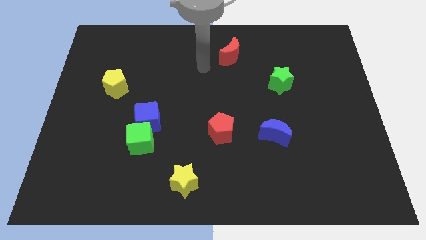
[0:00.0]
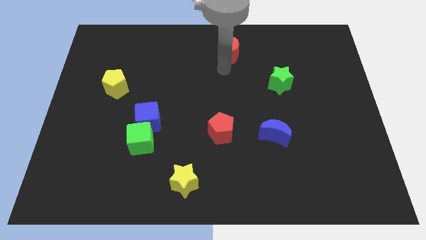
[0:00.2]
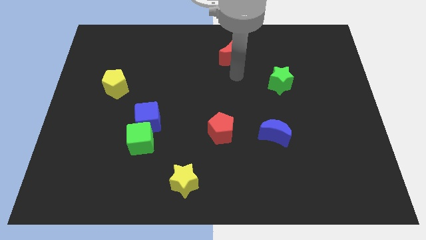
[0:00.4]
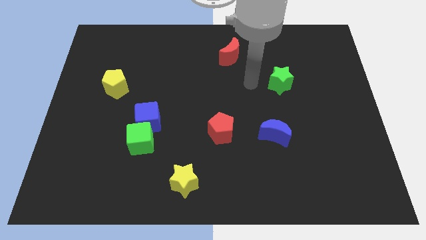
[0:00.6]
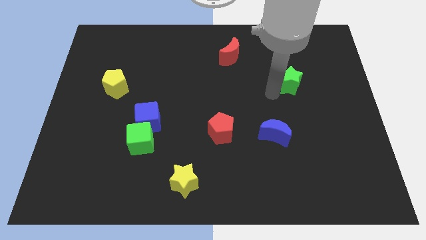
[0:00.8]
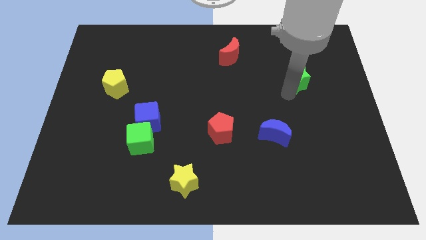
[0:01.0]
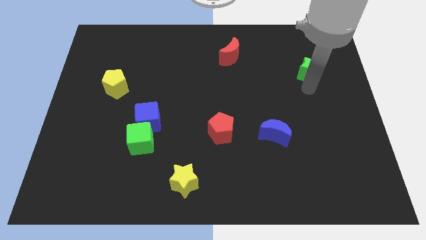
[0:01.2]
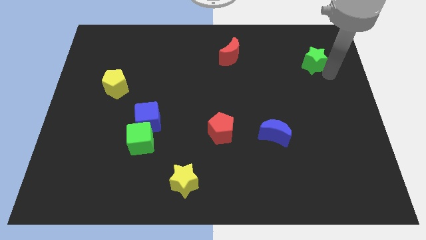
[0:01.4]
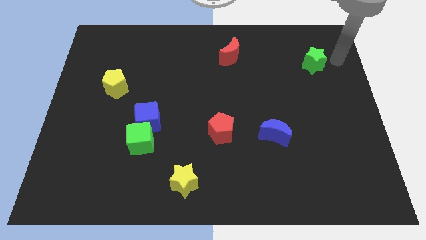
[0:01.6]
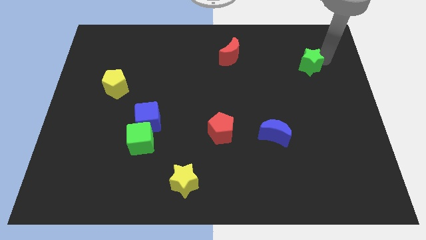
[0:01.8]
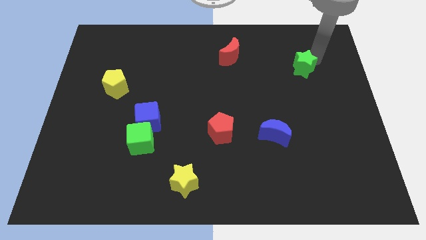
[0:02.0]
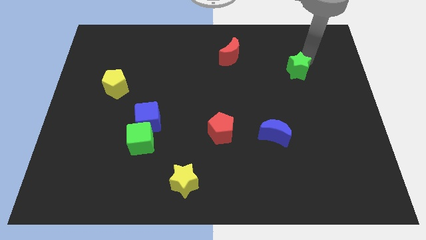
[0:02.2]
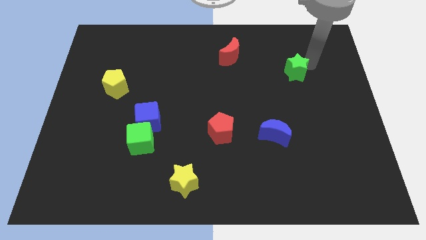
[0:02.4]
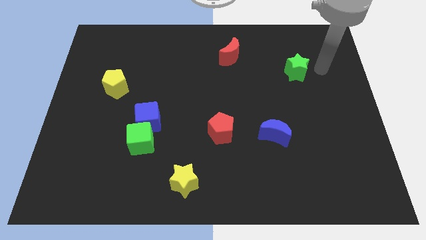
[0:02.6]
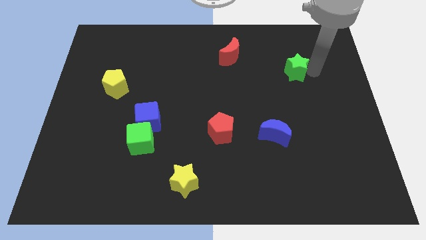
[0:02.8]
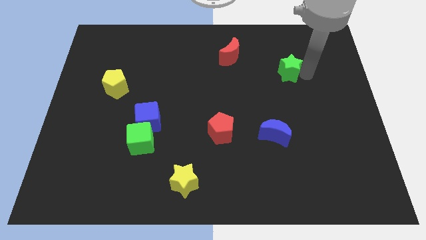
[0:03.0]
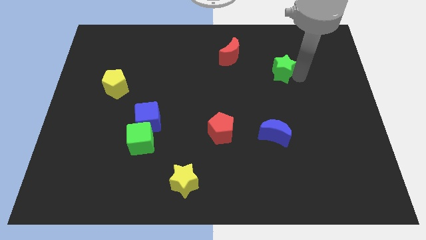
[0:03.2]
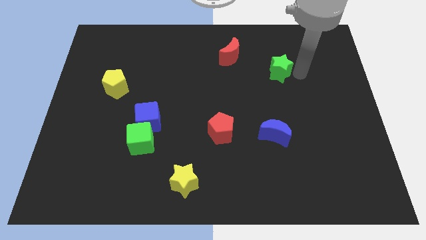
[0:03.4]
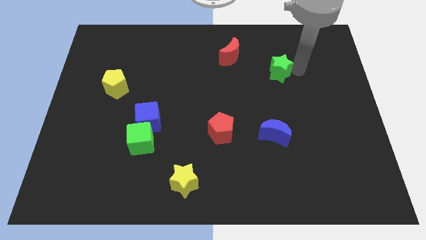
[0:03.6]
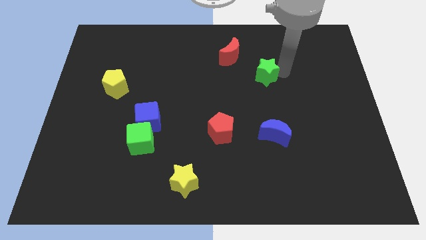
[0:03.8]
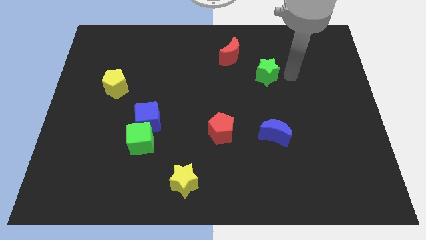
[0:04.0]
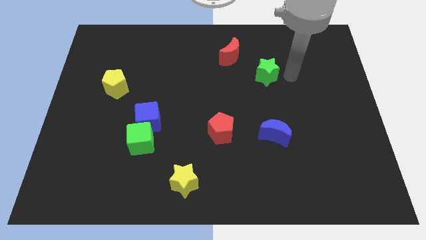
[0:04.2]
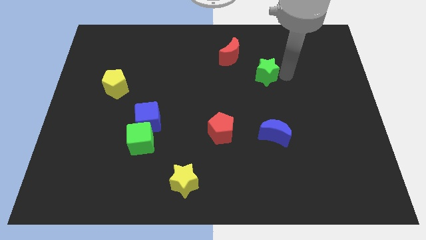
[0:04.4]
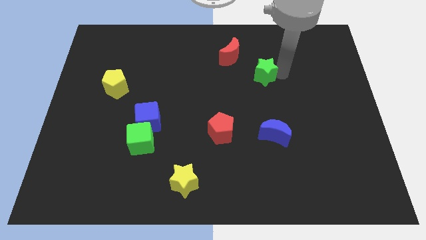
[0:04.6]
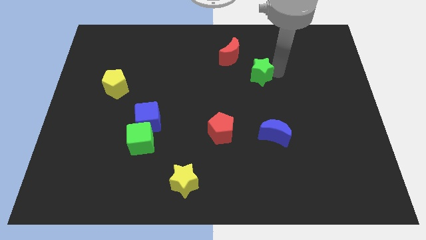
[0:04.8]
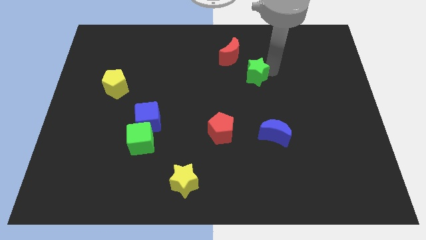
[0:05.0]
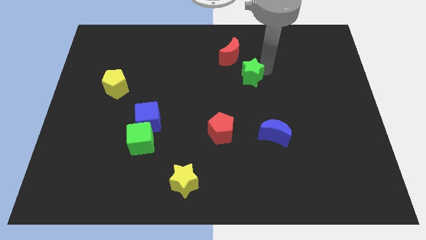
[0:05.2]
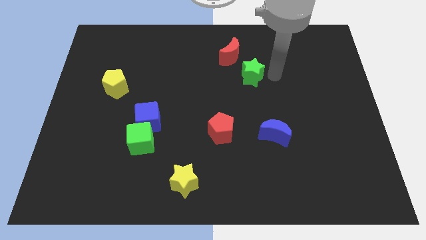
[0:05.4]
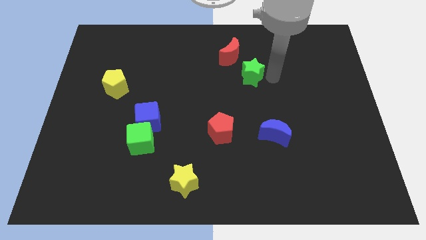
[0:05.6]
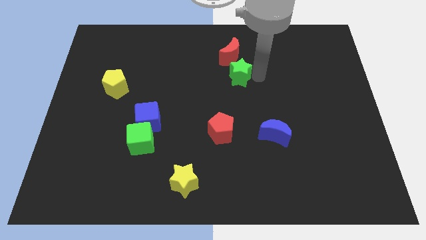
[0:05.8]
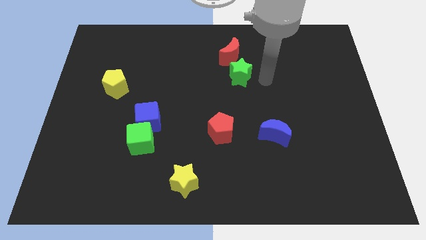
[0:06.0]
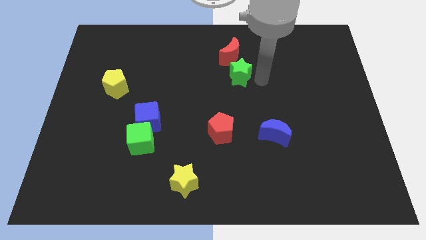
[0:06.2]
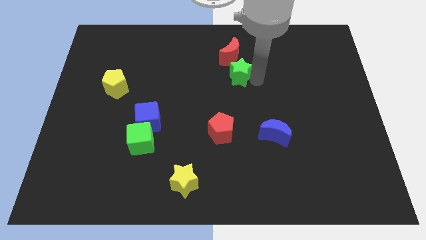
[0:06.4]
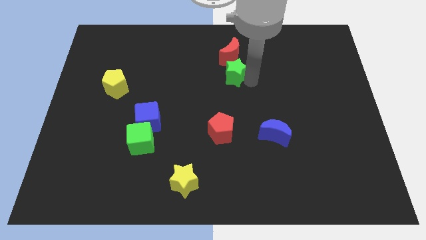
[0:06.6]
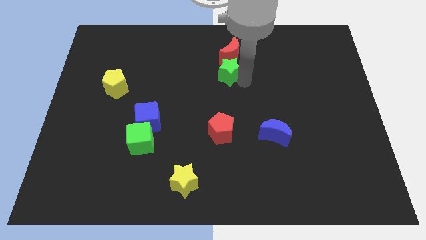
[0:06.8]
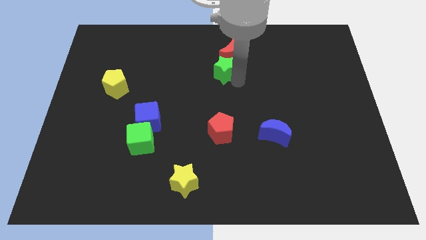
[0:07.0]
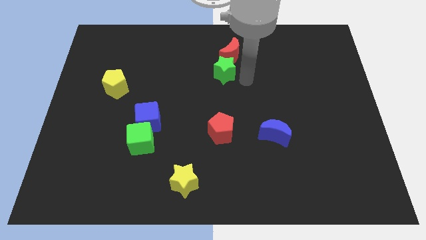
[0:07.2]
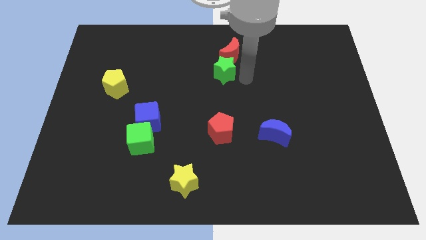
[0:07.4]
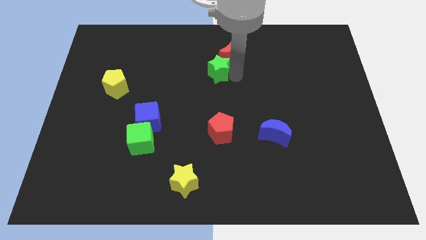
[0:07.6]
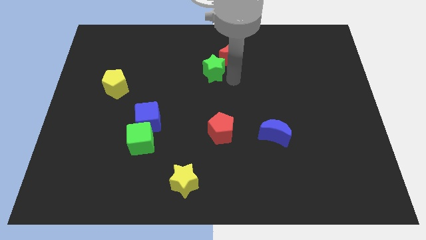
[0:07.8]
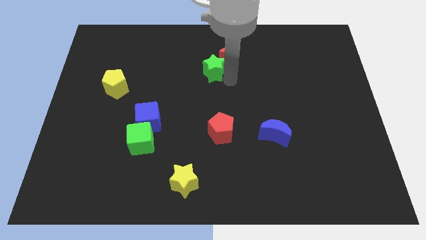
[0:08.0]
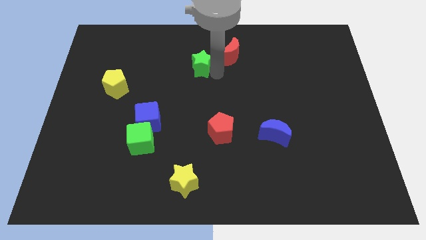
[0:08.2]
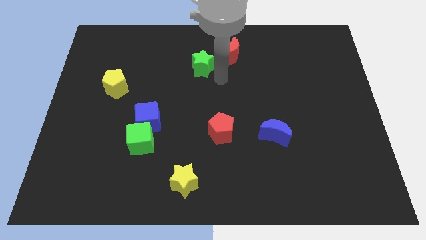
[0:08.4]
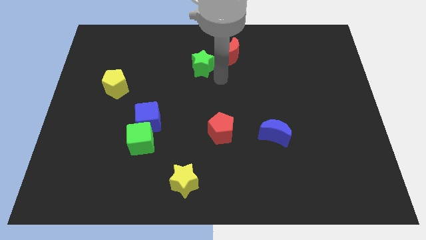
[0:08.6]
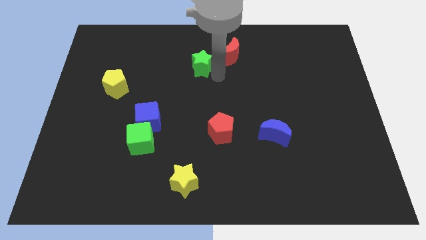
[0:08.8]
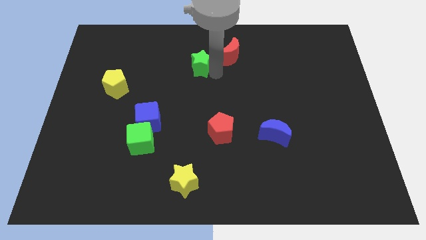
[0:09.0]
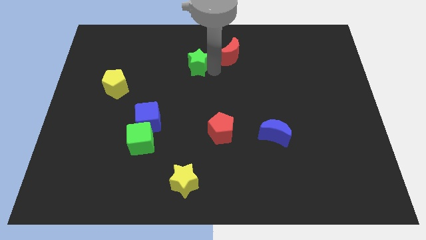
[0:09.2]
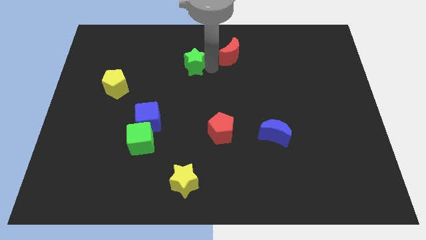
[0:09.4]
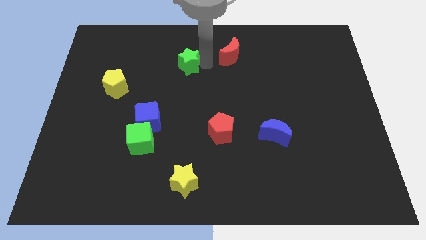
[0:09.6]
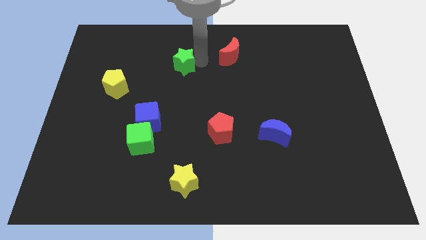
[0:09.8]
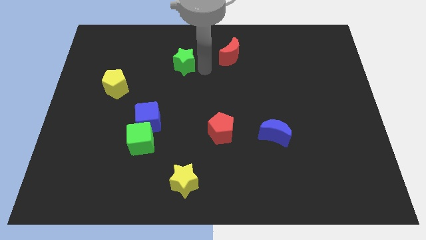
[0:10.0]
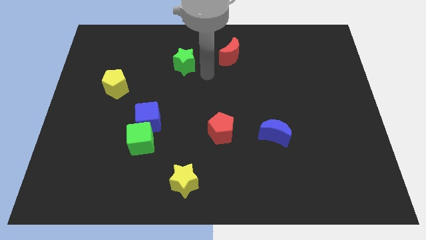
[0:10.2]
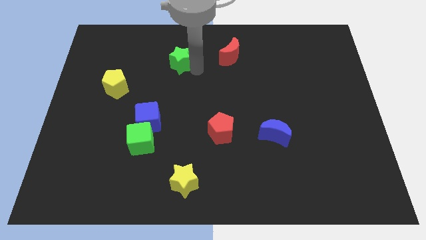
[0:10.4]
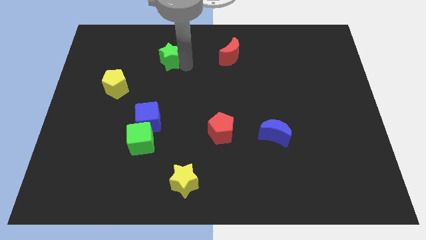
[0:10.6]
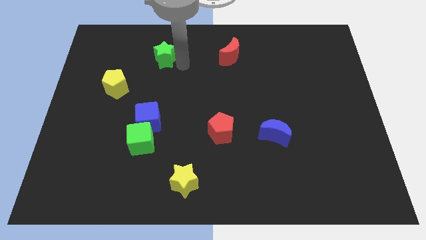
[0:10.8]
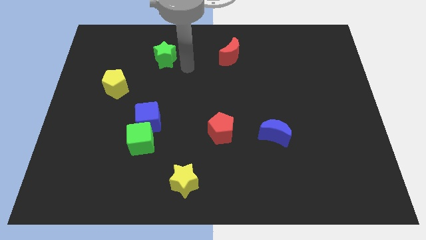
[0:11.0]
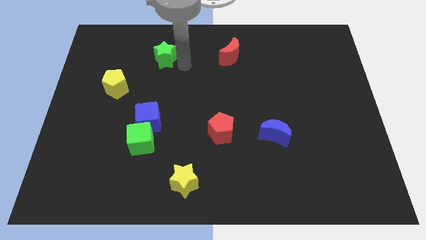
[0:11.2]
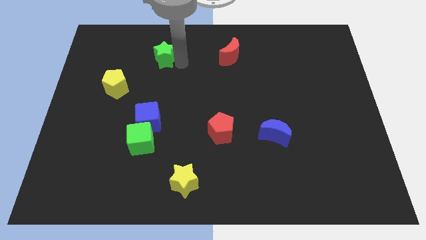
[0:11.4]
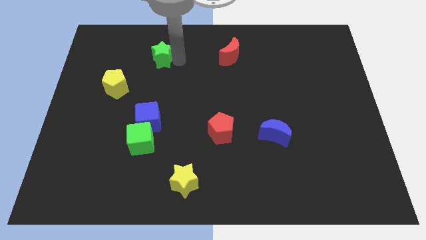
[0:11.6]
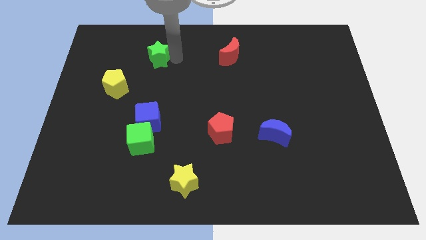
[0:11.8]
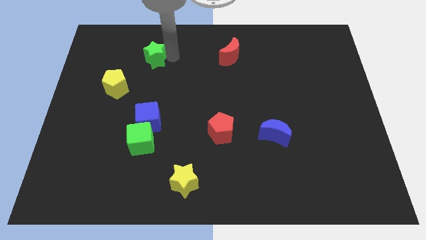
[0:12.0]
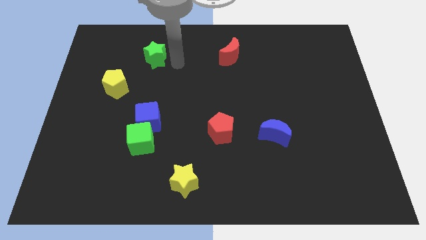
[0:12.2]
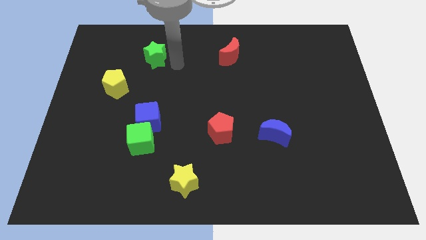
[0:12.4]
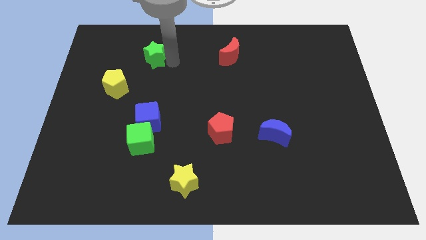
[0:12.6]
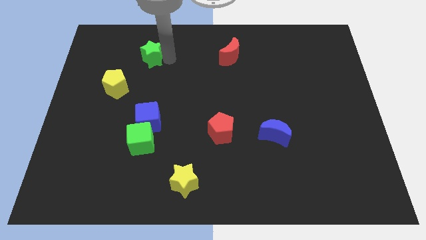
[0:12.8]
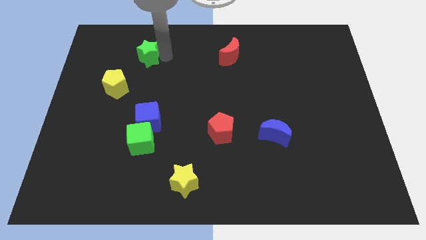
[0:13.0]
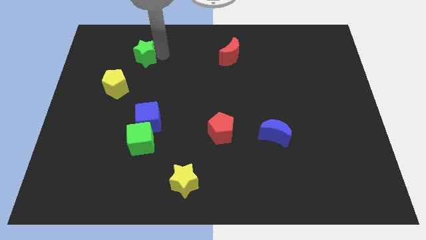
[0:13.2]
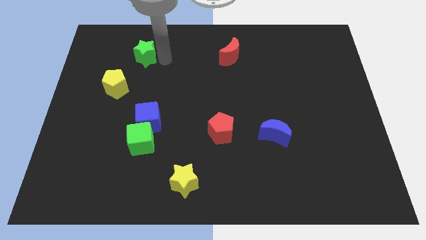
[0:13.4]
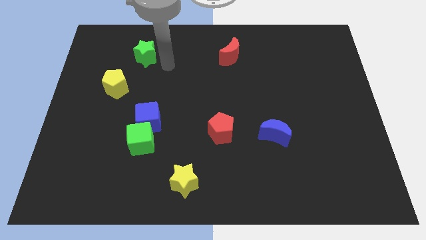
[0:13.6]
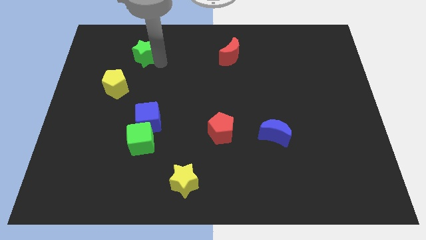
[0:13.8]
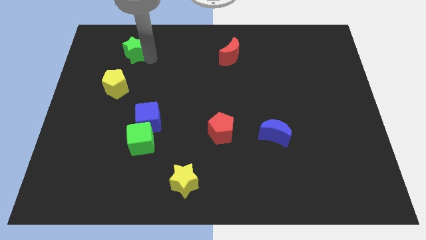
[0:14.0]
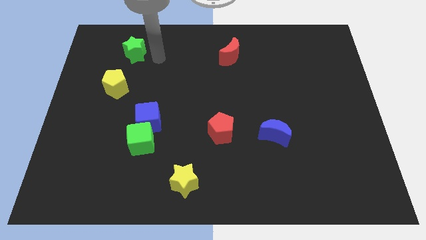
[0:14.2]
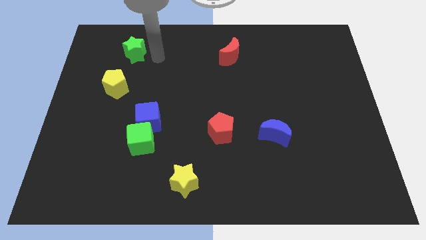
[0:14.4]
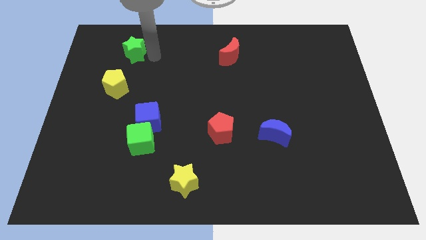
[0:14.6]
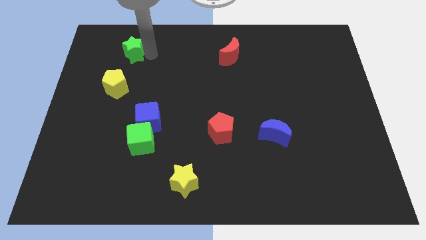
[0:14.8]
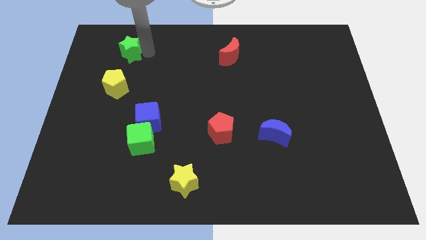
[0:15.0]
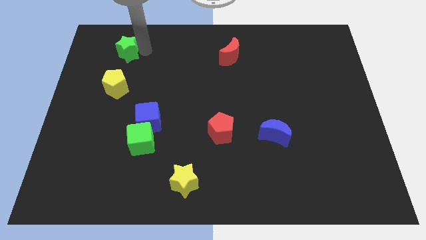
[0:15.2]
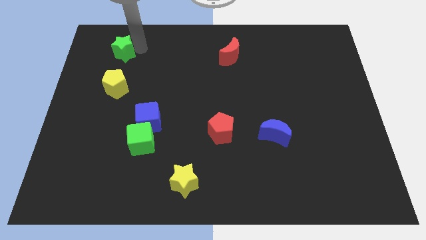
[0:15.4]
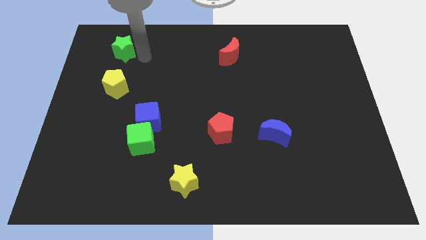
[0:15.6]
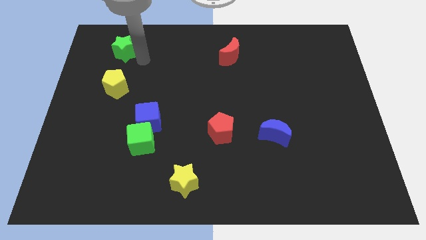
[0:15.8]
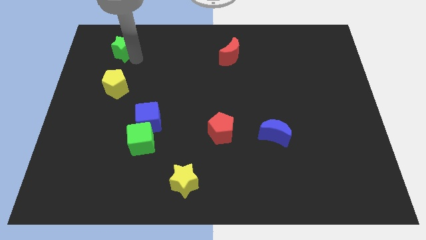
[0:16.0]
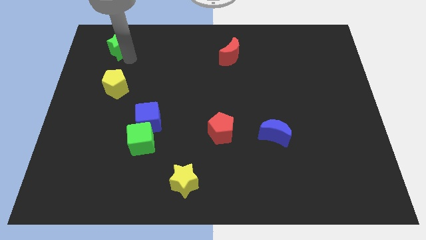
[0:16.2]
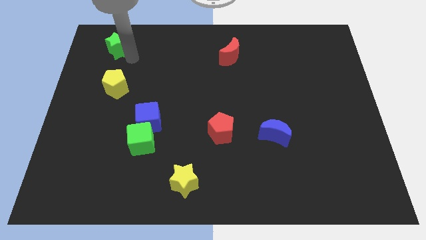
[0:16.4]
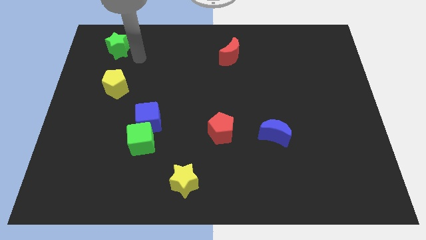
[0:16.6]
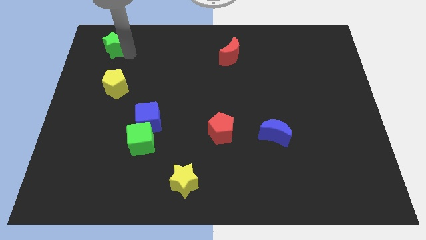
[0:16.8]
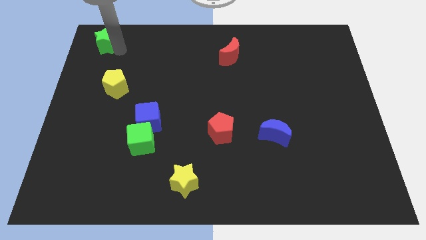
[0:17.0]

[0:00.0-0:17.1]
slide the green star to the upper left corner
